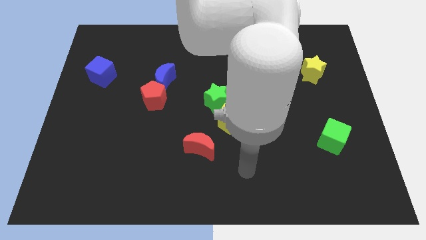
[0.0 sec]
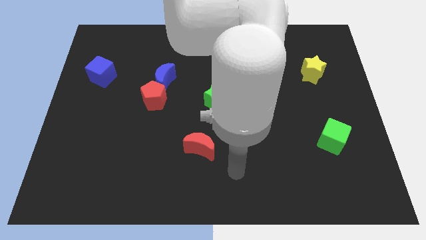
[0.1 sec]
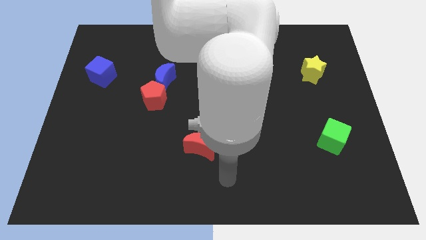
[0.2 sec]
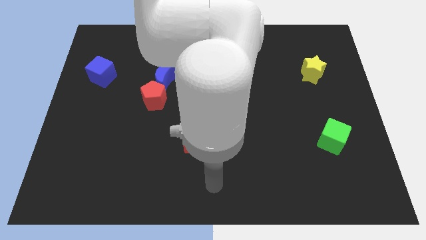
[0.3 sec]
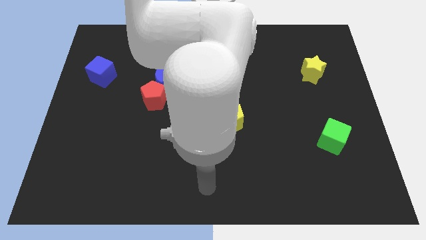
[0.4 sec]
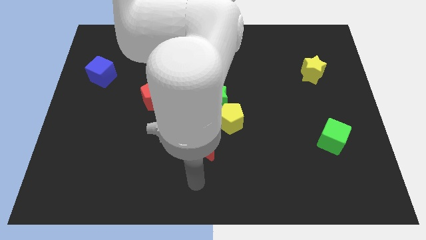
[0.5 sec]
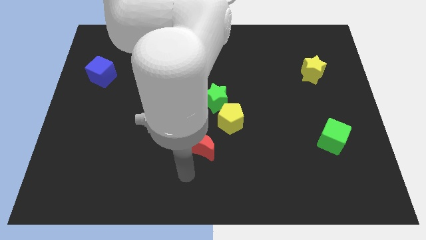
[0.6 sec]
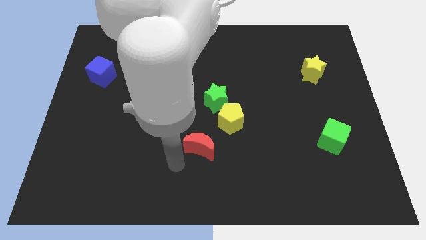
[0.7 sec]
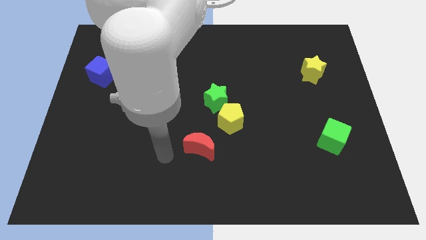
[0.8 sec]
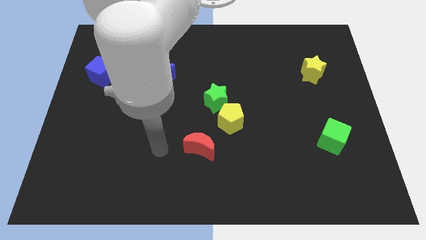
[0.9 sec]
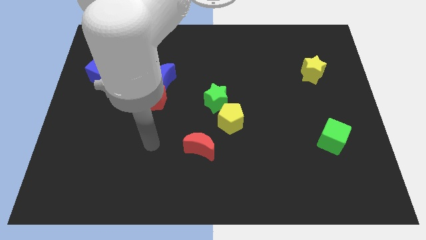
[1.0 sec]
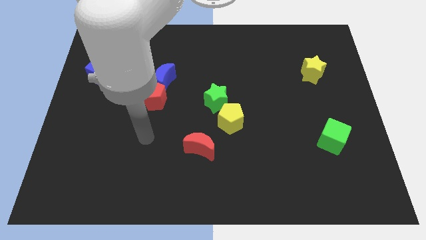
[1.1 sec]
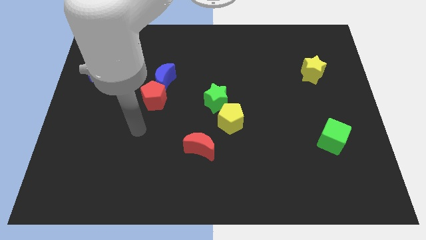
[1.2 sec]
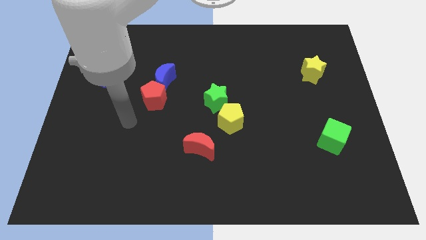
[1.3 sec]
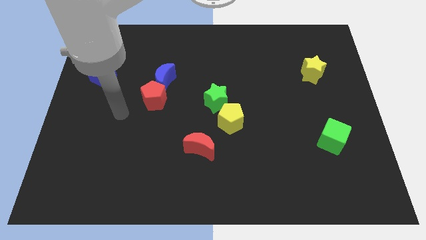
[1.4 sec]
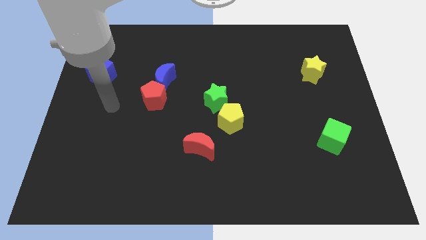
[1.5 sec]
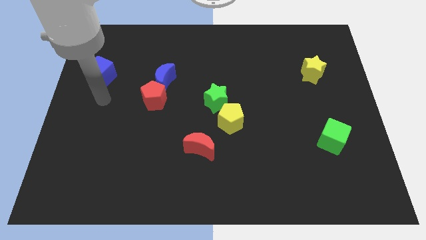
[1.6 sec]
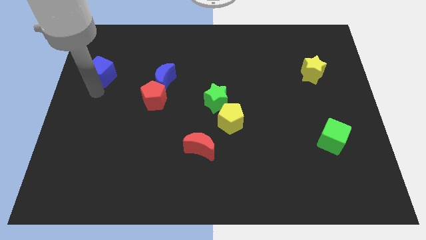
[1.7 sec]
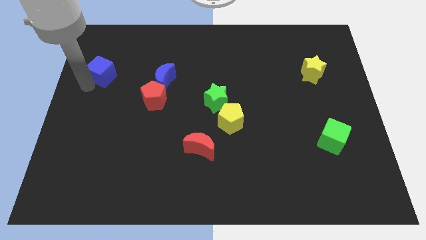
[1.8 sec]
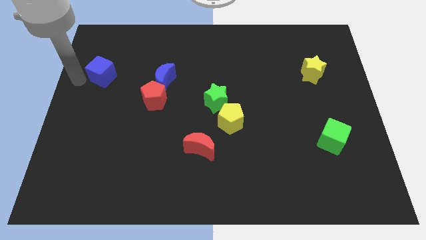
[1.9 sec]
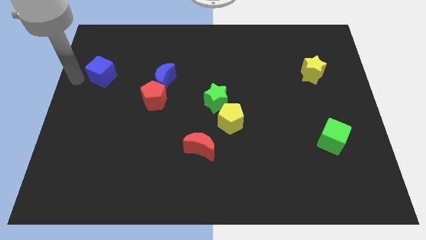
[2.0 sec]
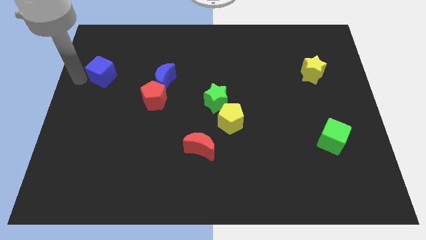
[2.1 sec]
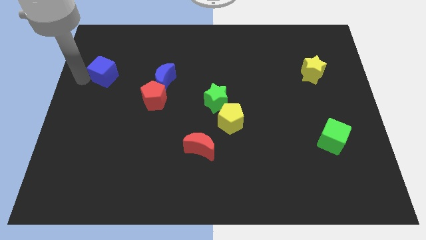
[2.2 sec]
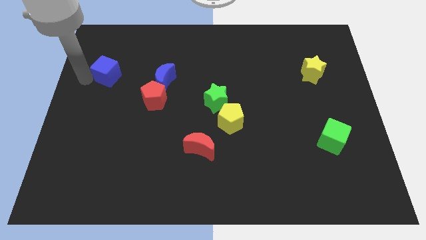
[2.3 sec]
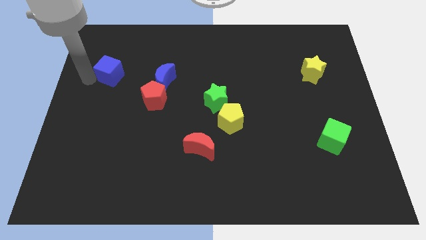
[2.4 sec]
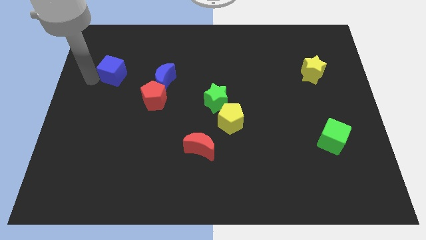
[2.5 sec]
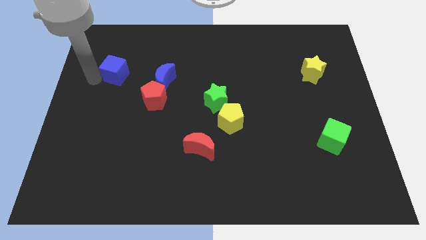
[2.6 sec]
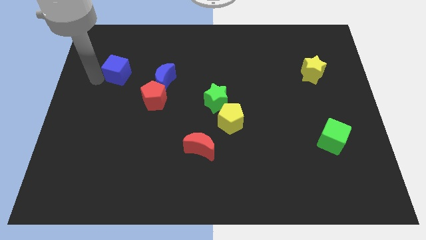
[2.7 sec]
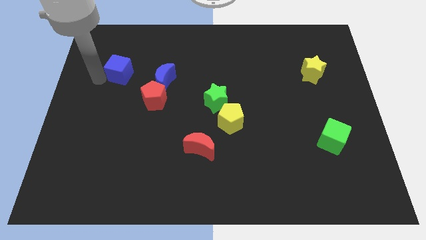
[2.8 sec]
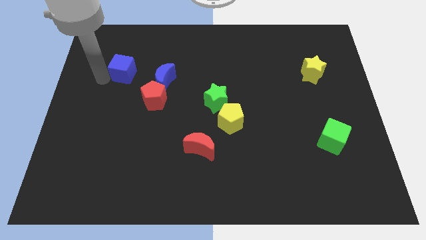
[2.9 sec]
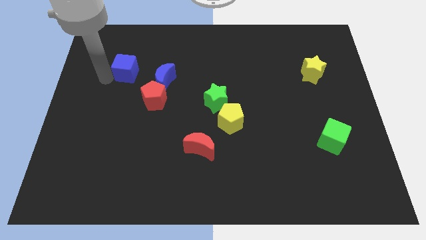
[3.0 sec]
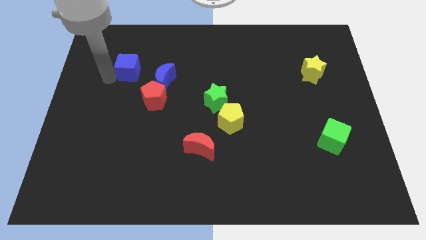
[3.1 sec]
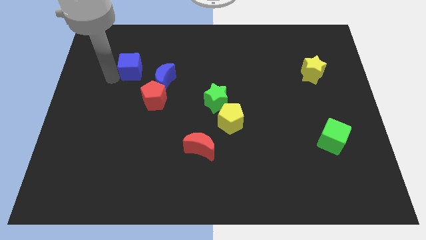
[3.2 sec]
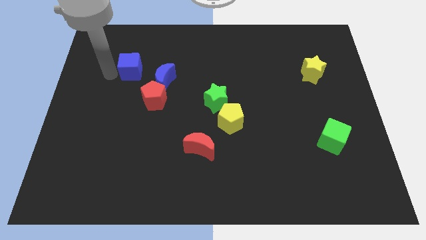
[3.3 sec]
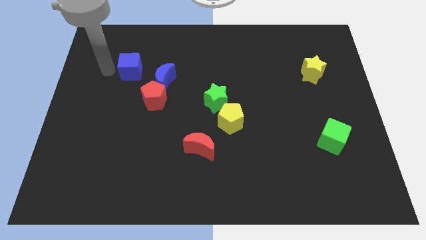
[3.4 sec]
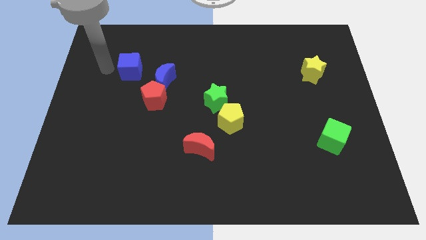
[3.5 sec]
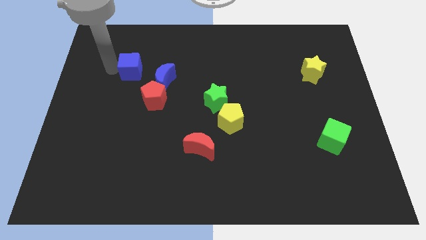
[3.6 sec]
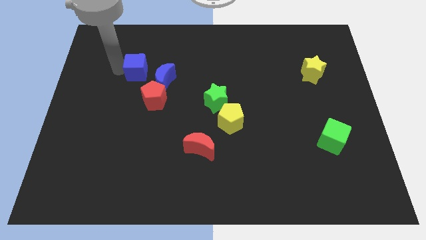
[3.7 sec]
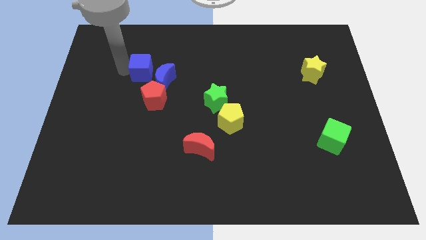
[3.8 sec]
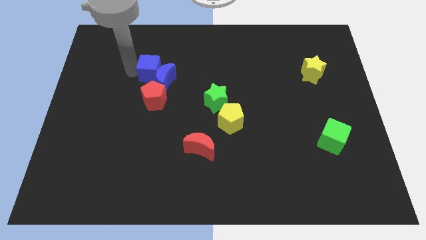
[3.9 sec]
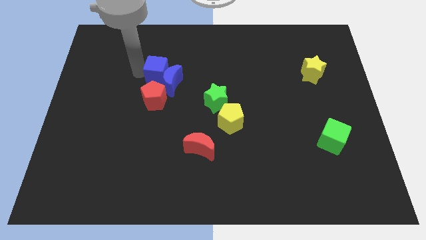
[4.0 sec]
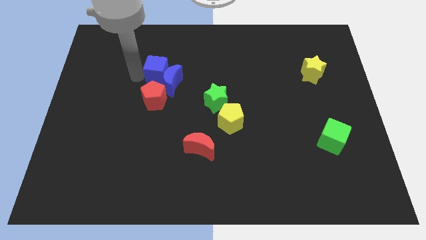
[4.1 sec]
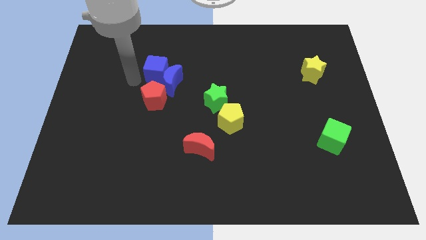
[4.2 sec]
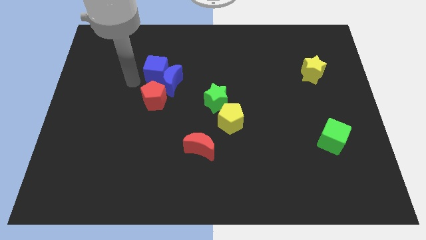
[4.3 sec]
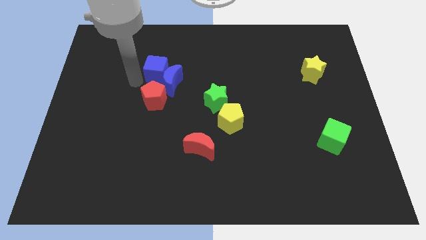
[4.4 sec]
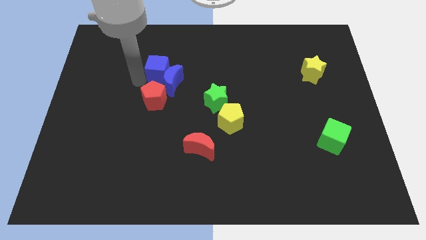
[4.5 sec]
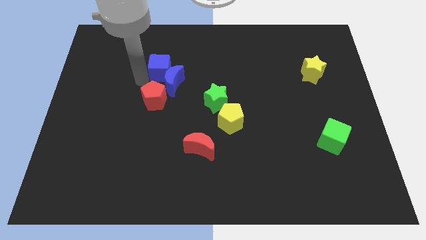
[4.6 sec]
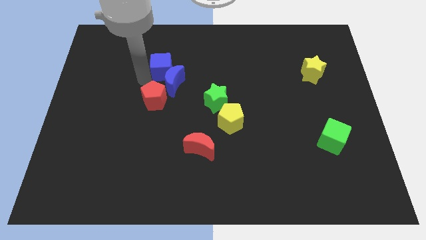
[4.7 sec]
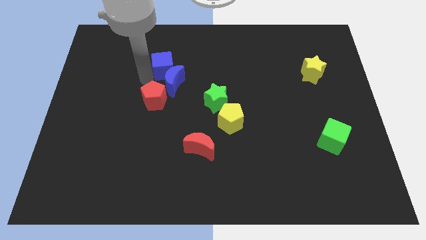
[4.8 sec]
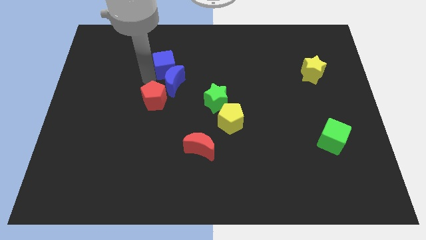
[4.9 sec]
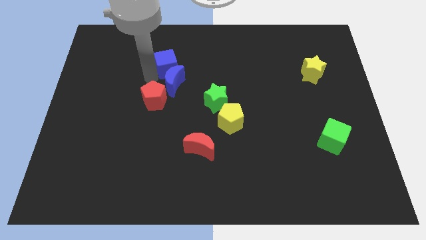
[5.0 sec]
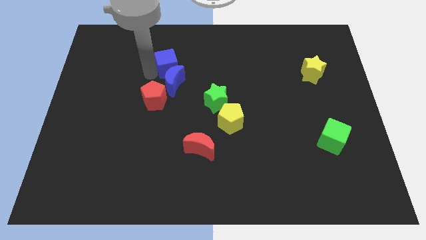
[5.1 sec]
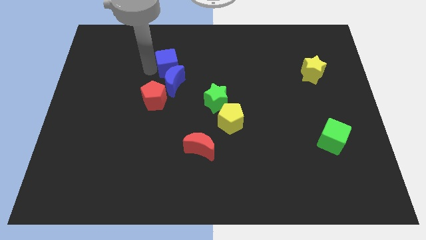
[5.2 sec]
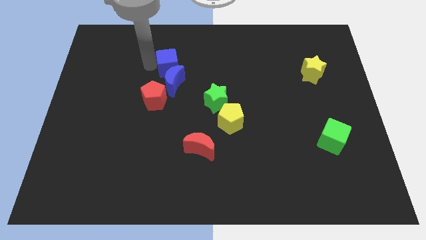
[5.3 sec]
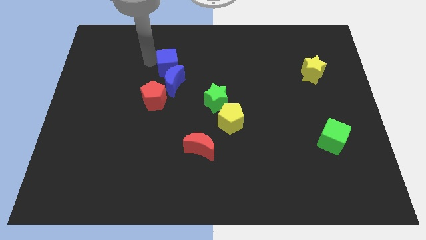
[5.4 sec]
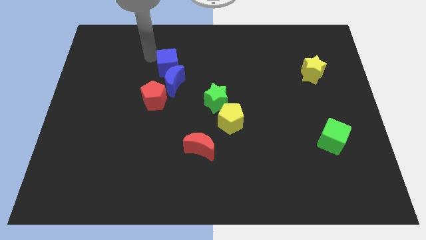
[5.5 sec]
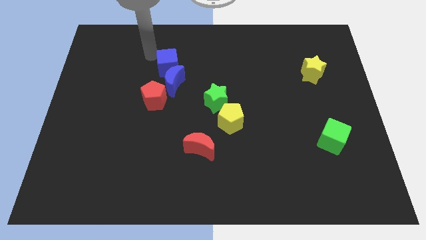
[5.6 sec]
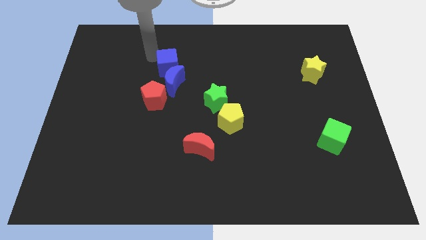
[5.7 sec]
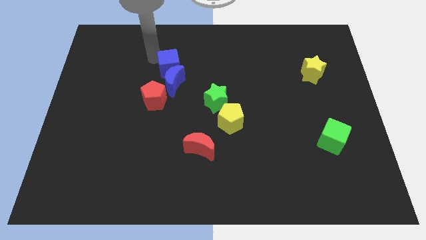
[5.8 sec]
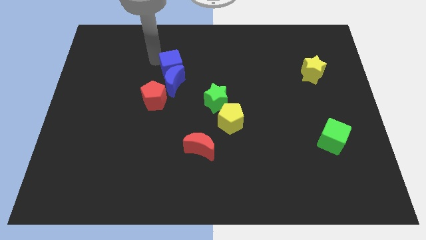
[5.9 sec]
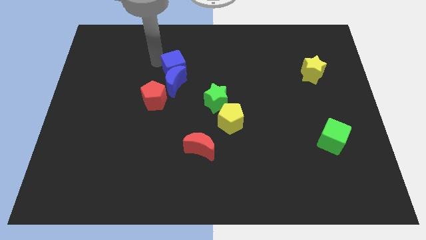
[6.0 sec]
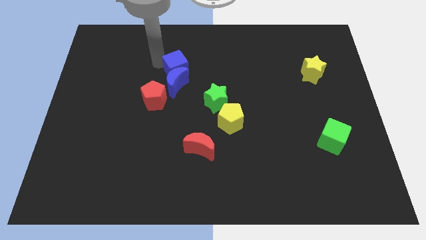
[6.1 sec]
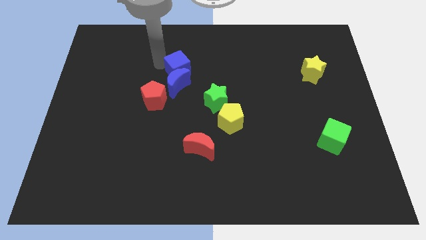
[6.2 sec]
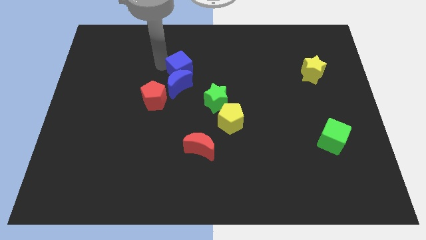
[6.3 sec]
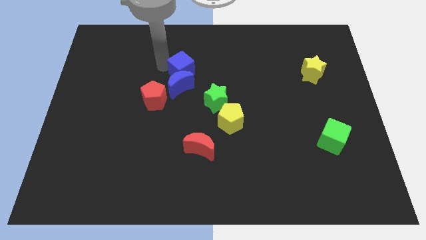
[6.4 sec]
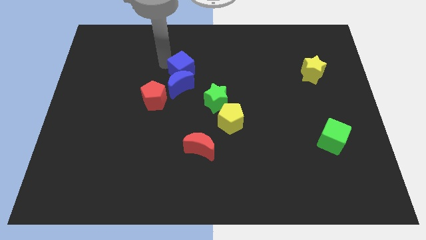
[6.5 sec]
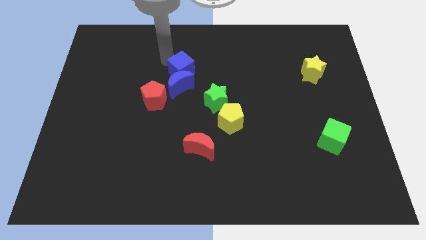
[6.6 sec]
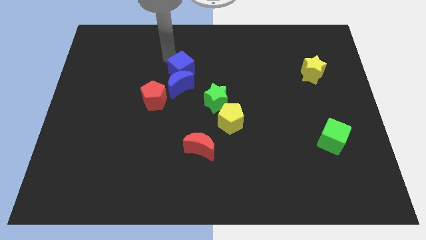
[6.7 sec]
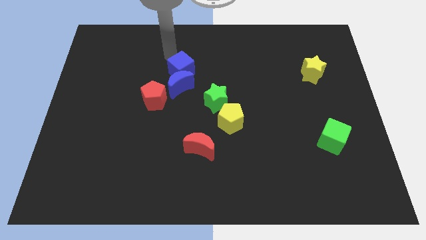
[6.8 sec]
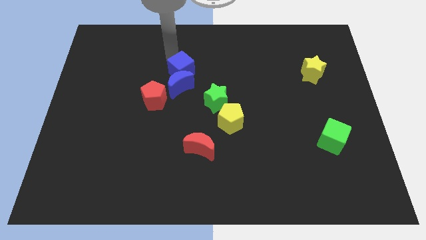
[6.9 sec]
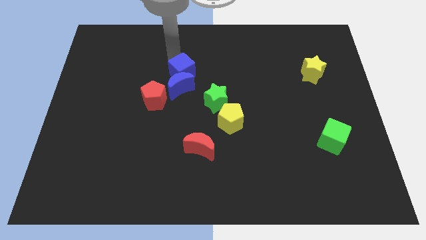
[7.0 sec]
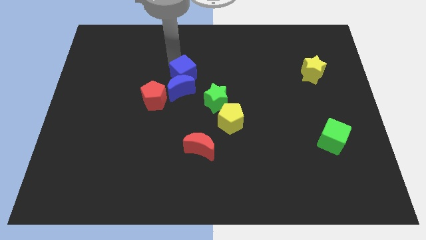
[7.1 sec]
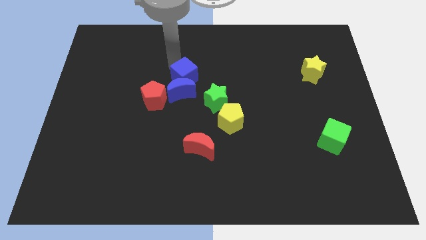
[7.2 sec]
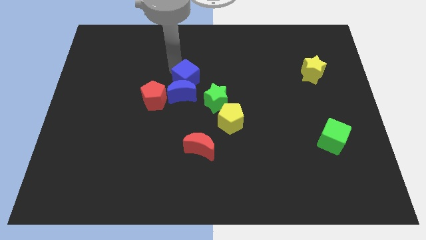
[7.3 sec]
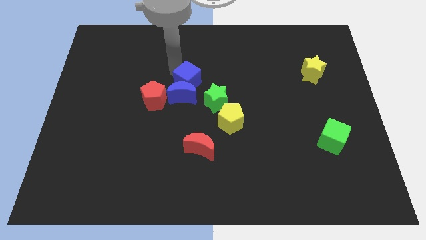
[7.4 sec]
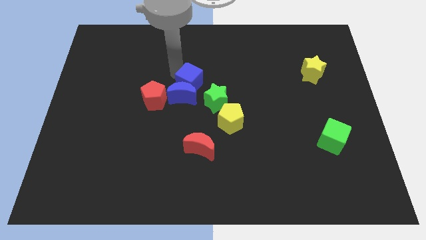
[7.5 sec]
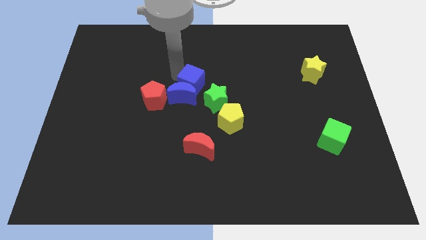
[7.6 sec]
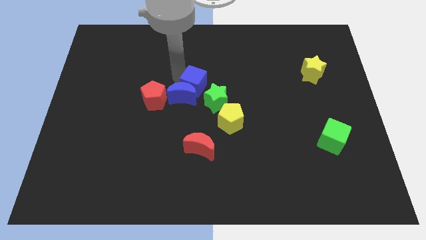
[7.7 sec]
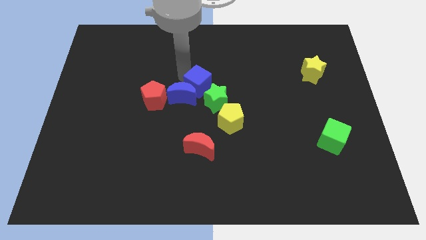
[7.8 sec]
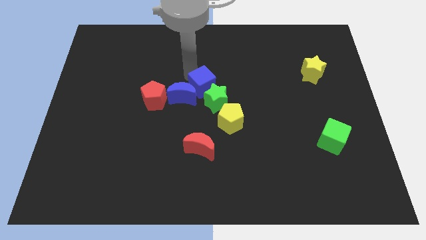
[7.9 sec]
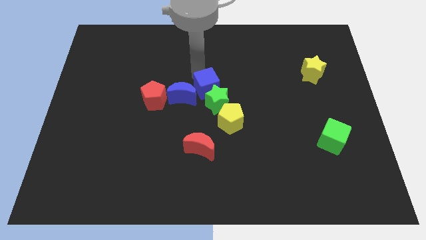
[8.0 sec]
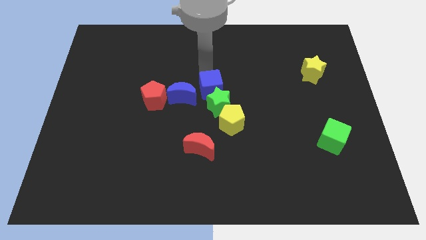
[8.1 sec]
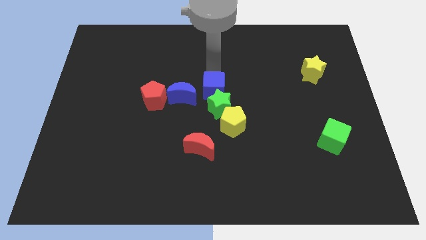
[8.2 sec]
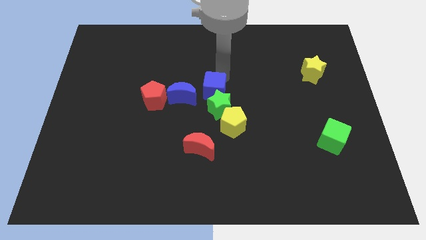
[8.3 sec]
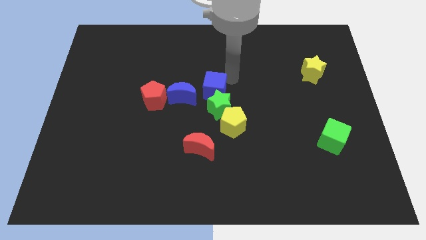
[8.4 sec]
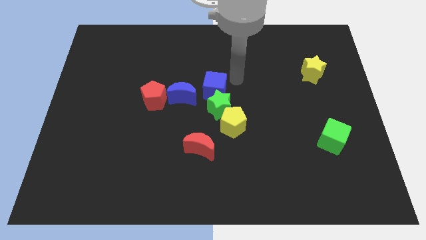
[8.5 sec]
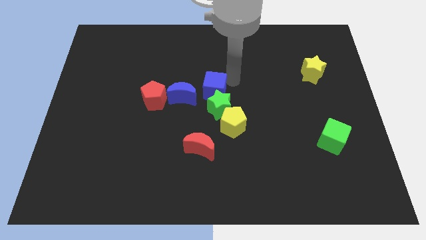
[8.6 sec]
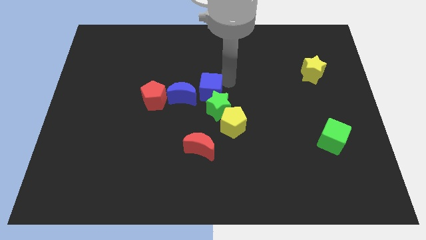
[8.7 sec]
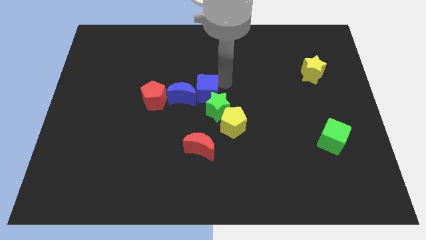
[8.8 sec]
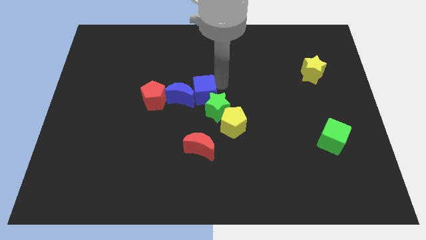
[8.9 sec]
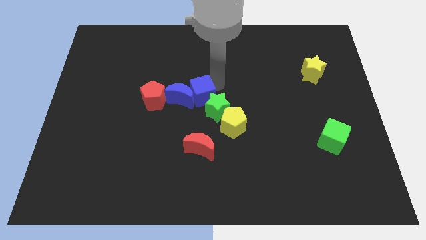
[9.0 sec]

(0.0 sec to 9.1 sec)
put the blue cube just left of the green star
